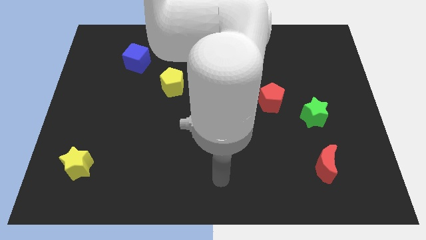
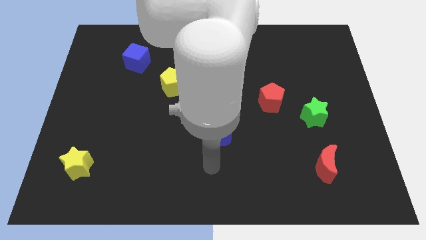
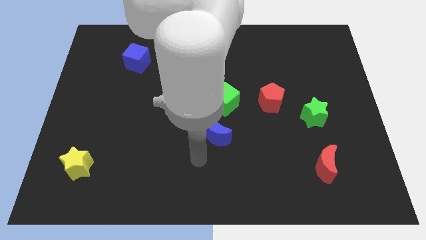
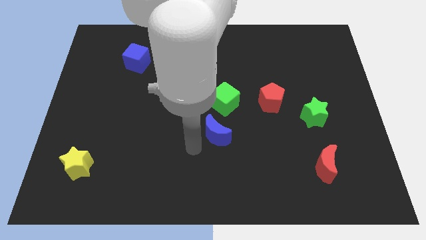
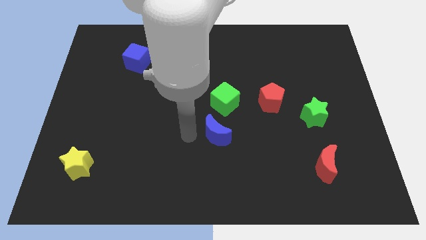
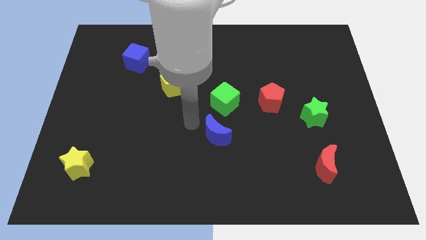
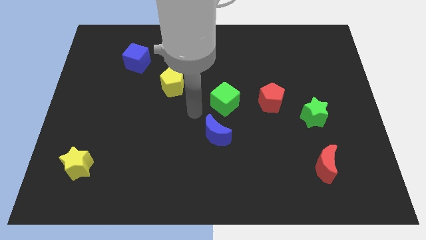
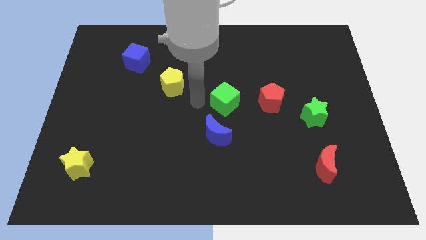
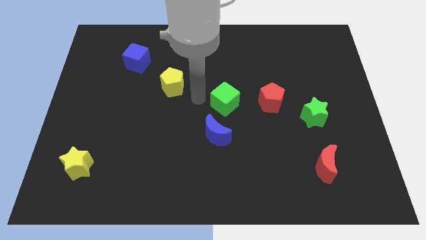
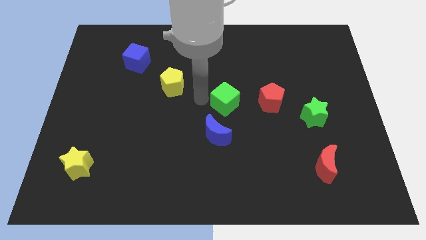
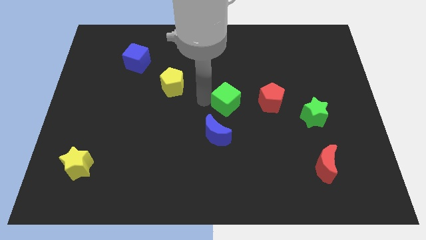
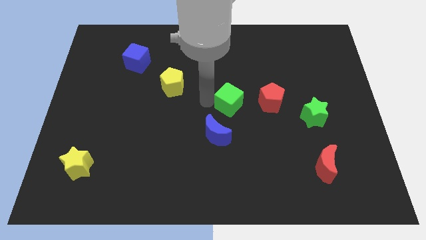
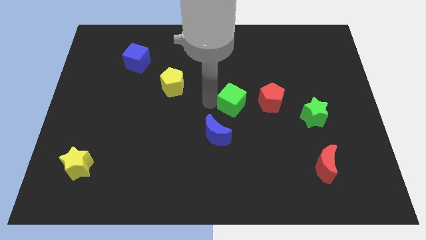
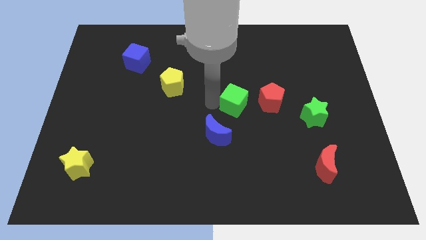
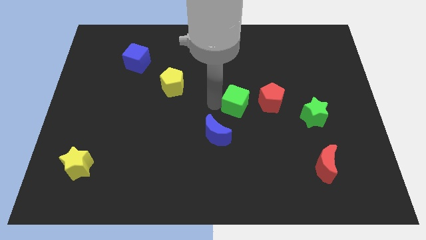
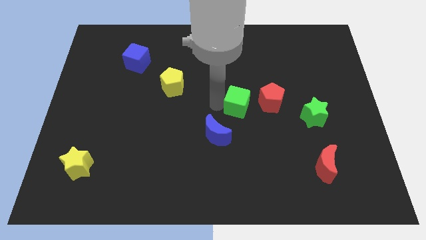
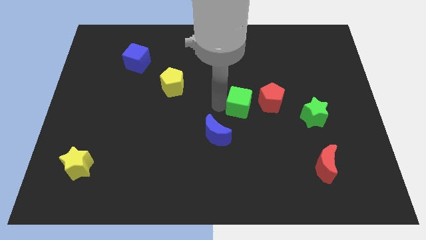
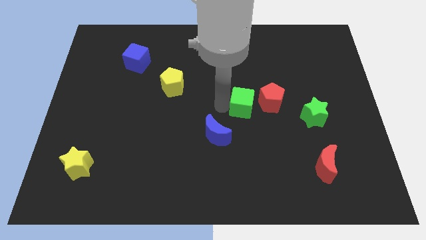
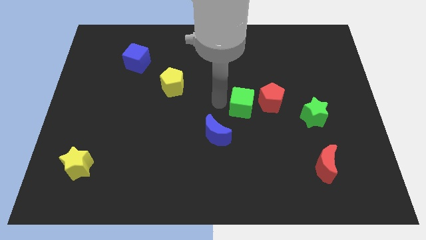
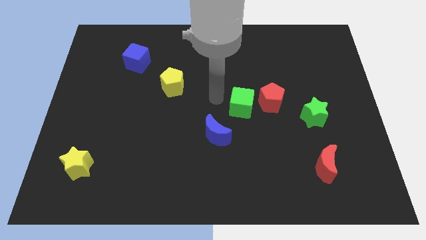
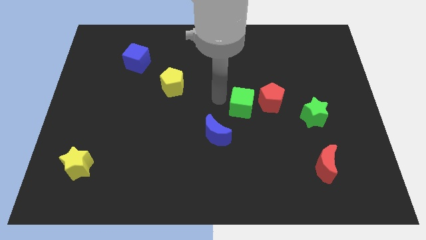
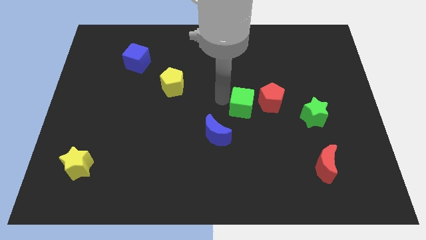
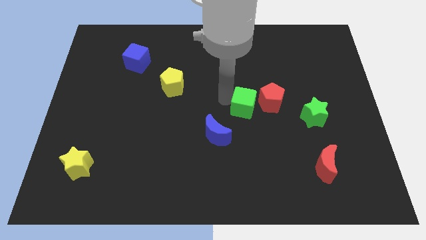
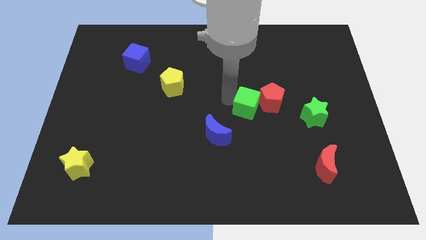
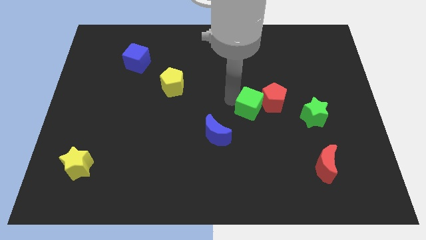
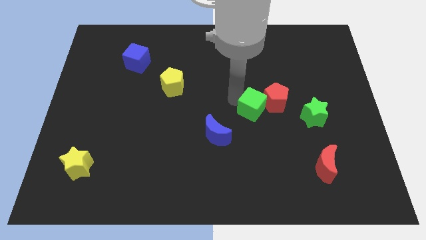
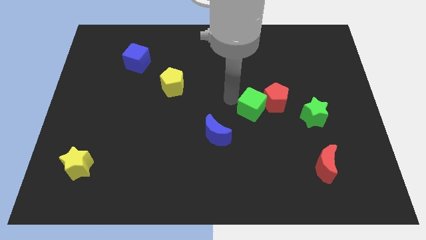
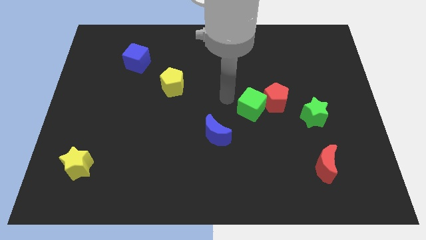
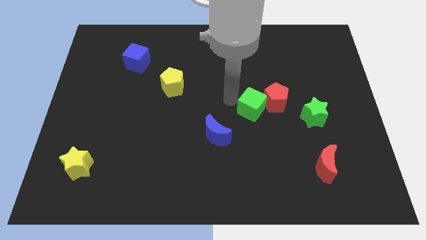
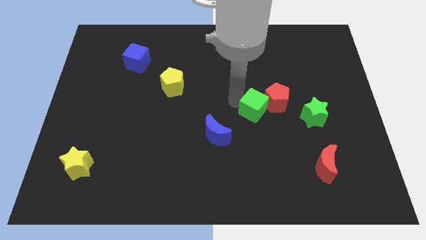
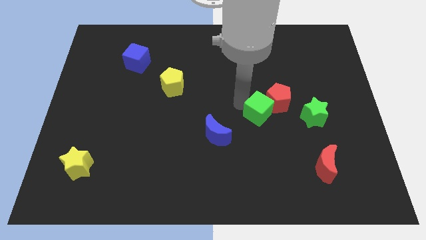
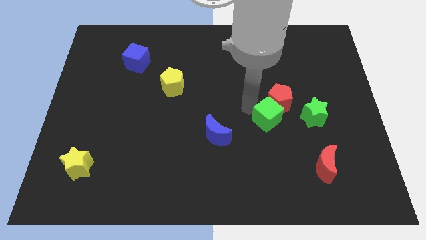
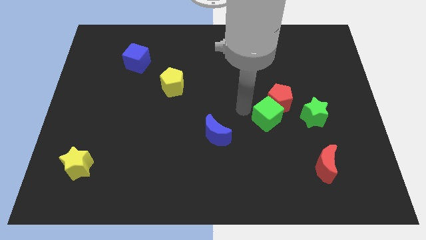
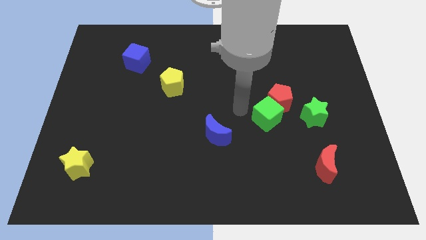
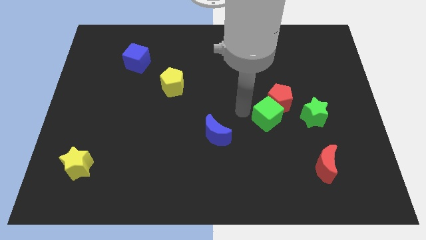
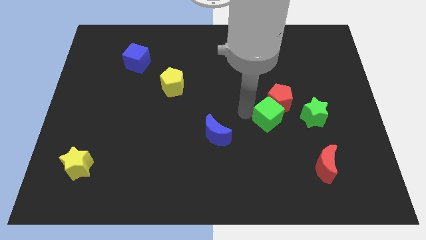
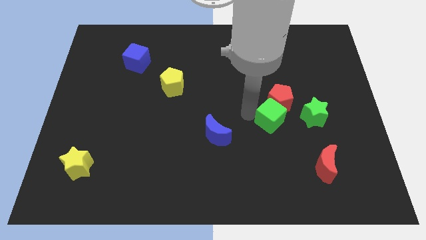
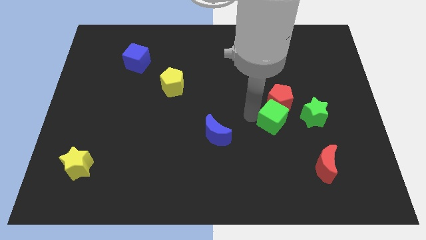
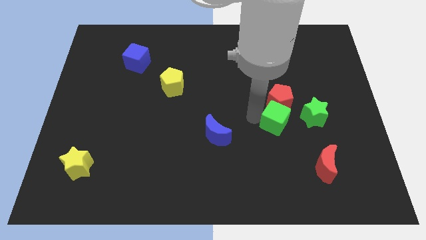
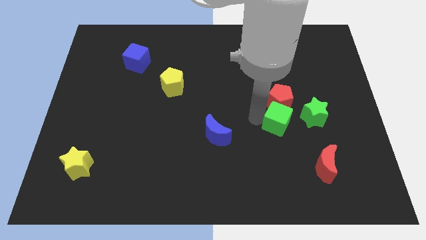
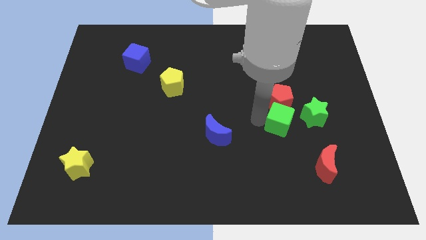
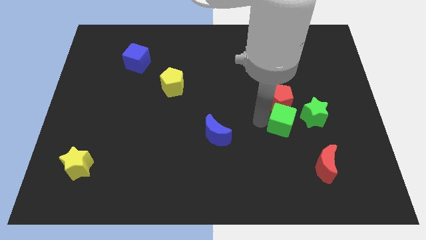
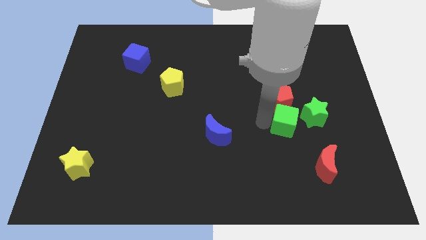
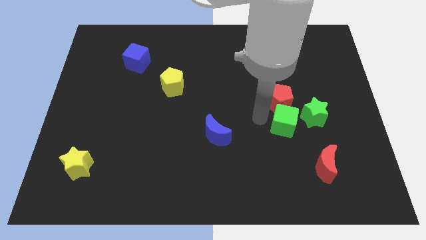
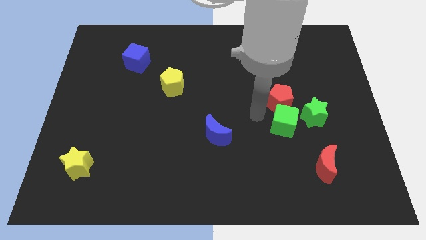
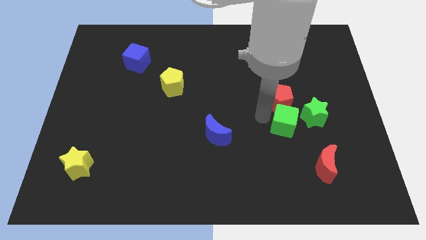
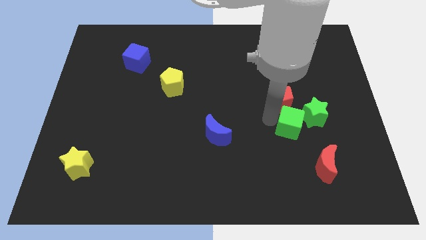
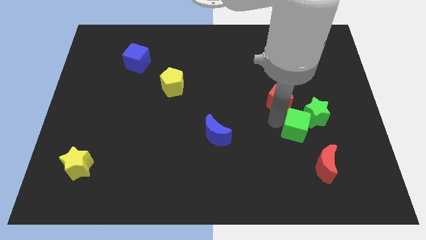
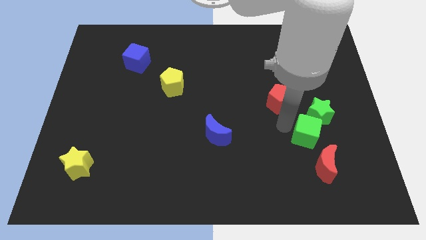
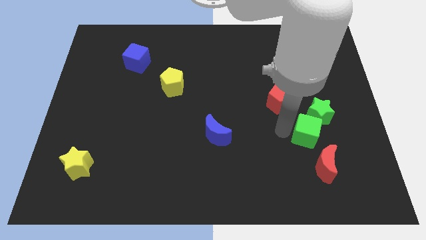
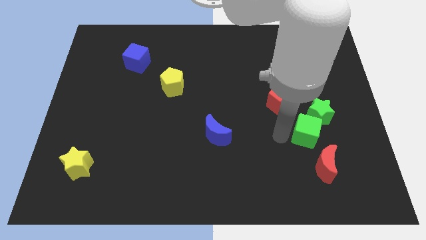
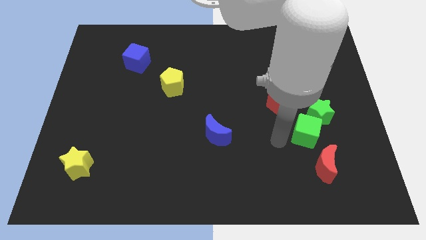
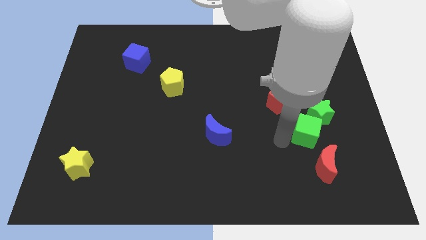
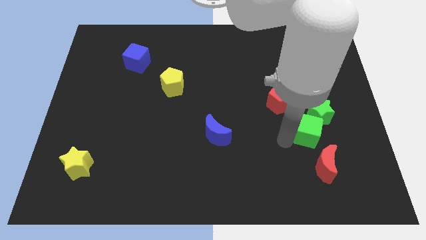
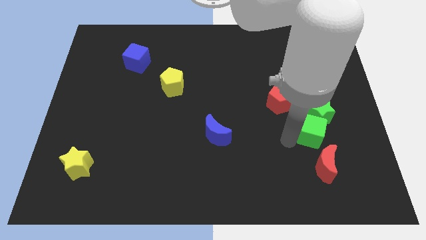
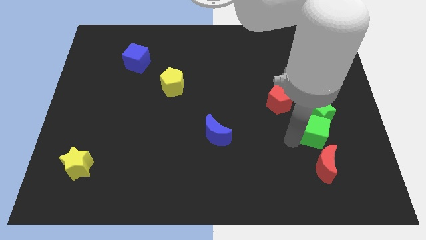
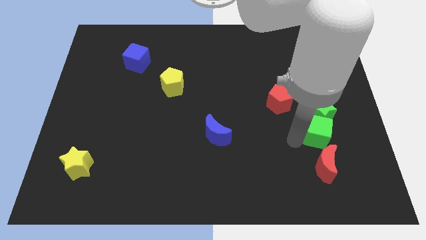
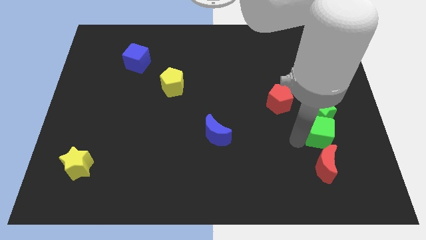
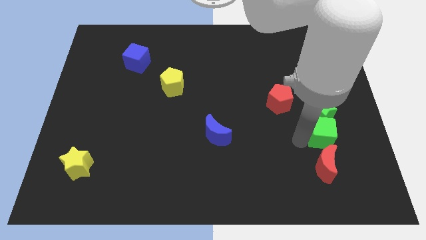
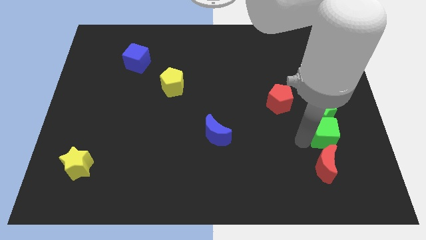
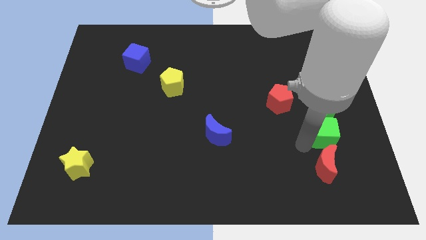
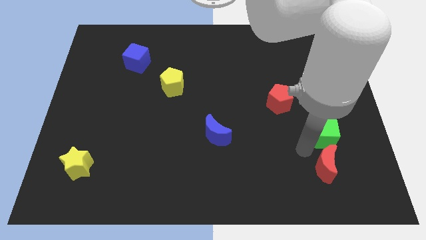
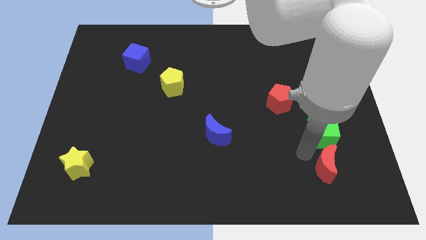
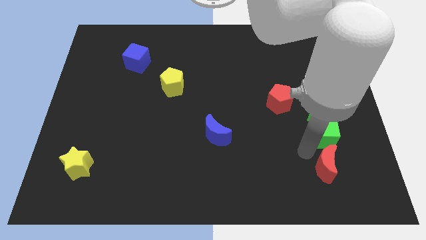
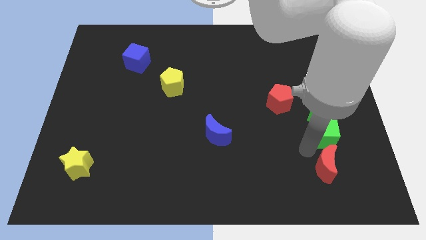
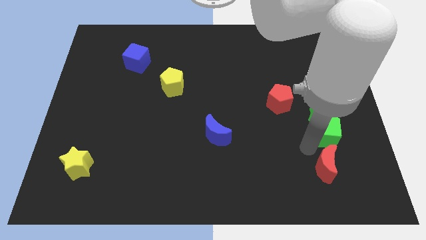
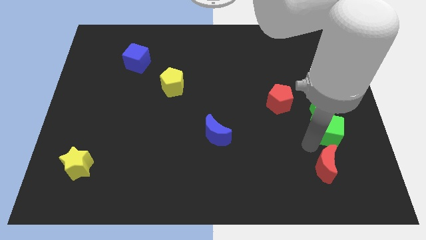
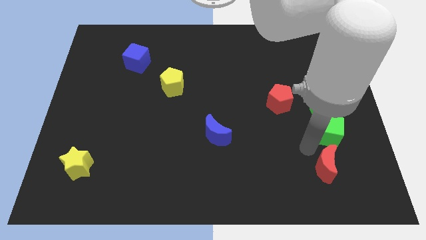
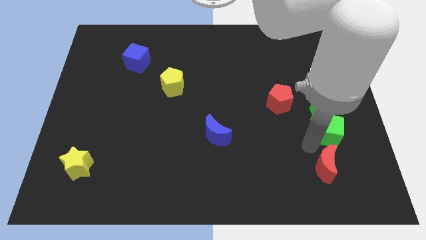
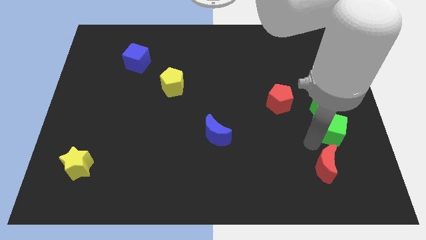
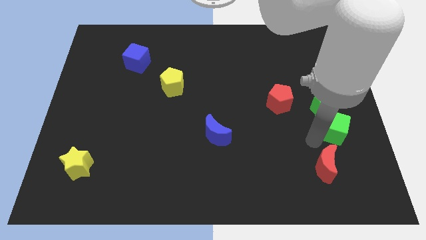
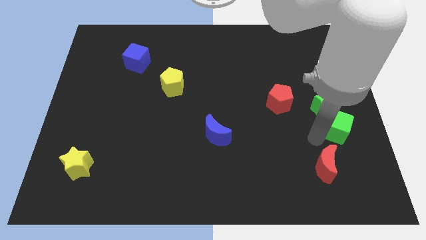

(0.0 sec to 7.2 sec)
slide the green cube to the right side of the board

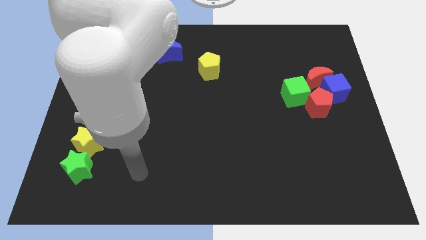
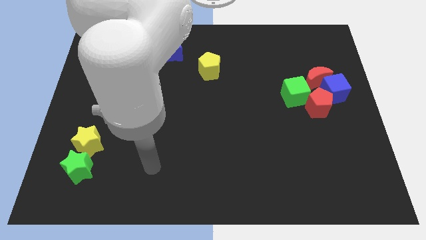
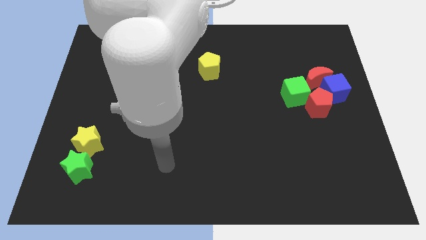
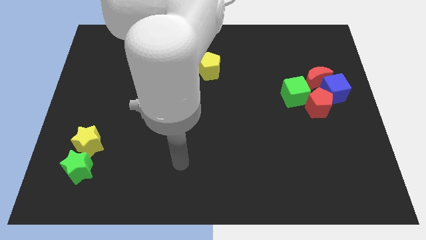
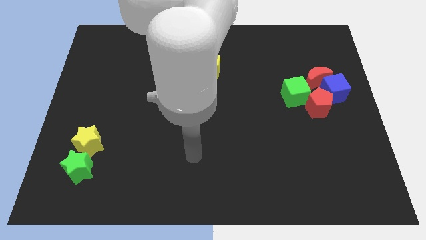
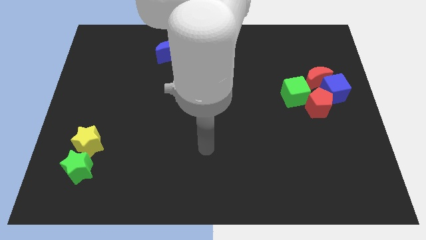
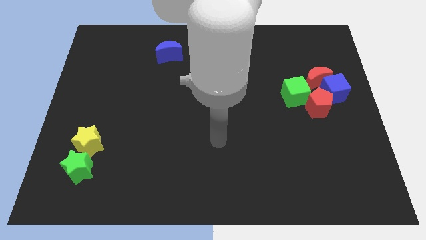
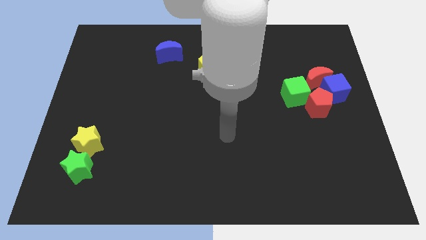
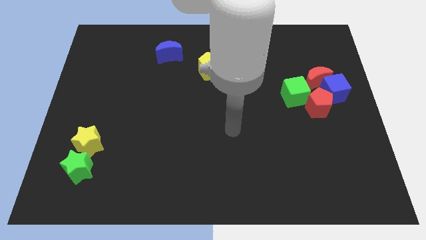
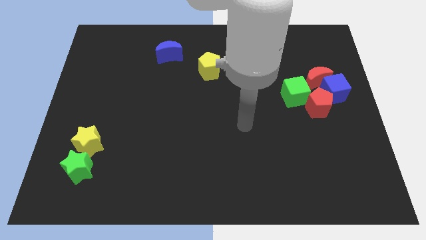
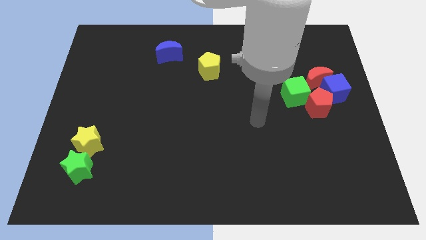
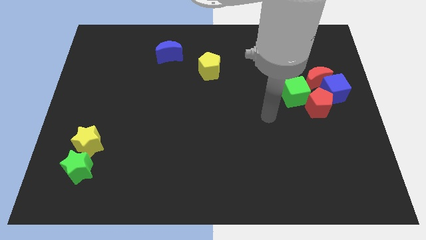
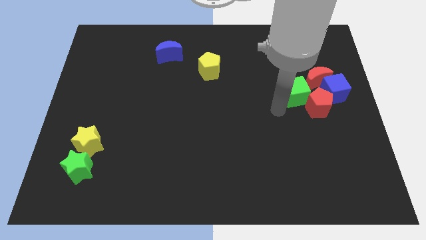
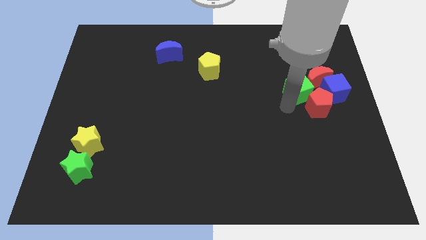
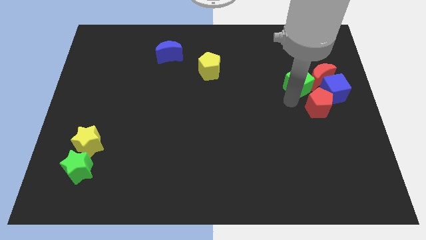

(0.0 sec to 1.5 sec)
move the red moon to the right side
